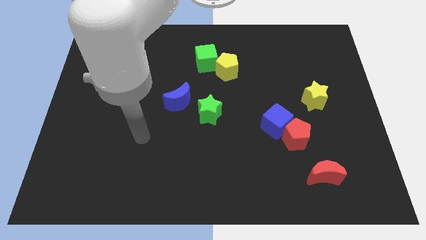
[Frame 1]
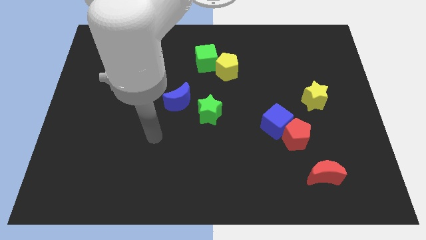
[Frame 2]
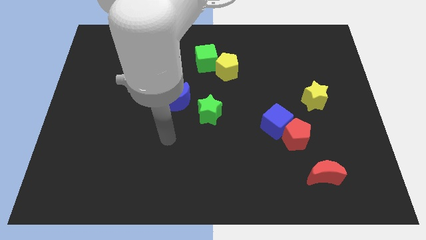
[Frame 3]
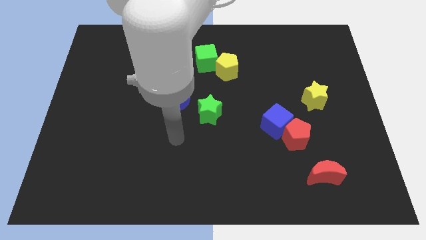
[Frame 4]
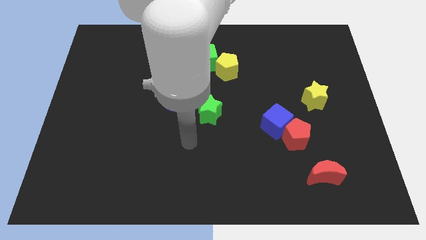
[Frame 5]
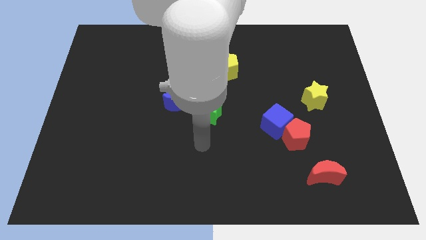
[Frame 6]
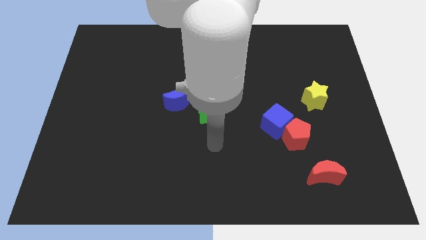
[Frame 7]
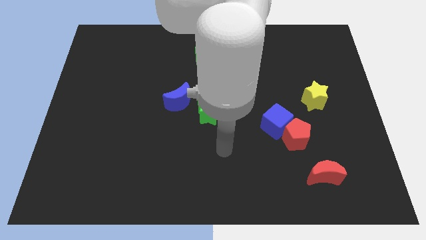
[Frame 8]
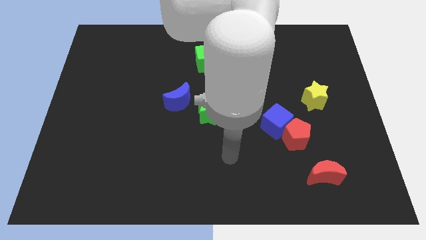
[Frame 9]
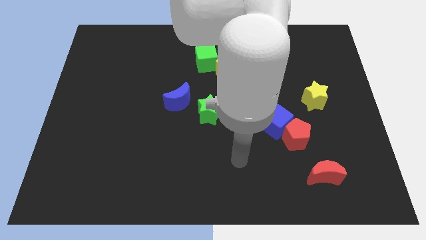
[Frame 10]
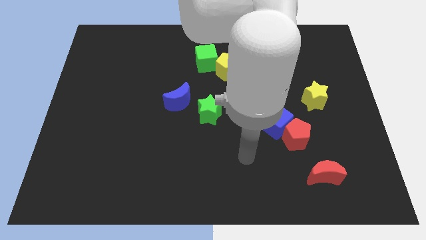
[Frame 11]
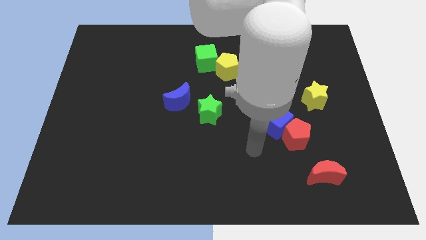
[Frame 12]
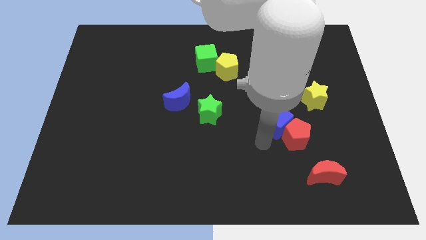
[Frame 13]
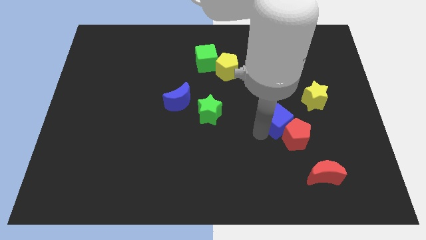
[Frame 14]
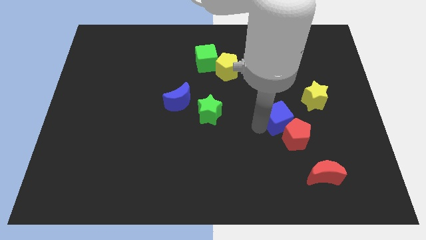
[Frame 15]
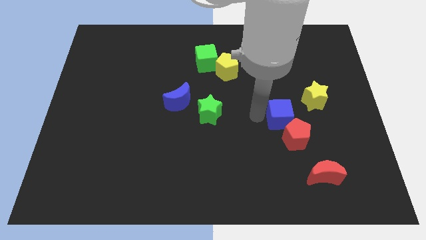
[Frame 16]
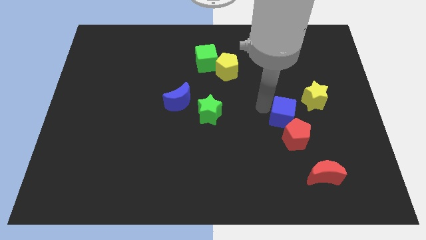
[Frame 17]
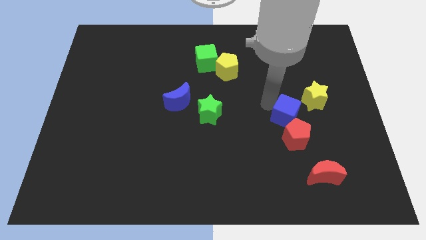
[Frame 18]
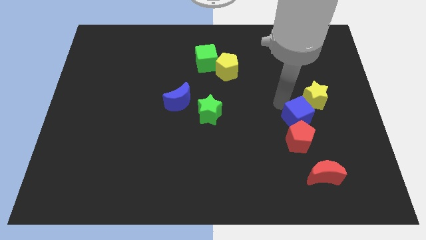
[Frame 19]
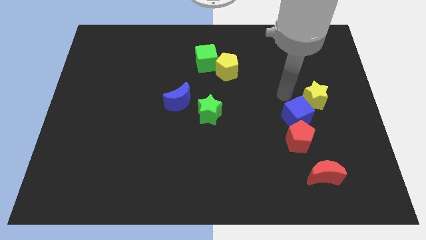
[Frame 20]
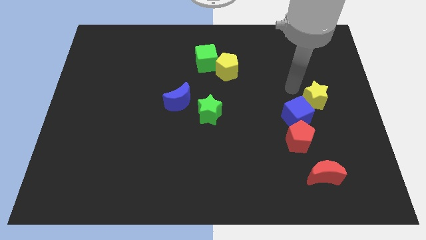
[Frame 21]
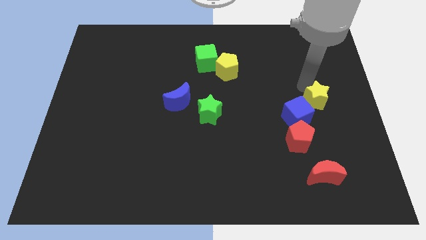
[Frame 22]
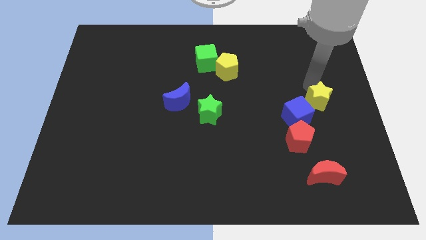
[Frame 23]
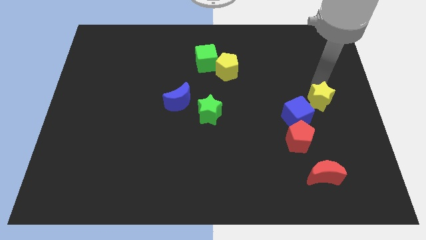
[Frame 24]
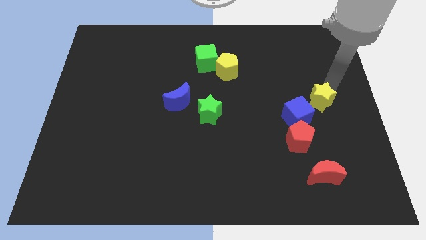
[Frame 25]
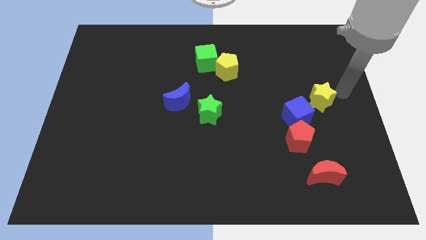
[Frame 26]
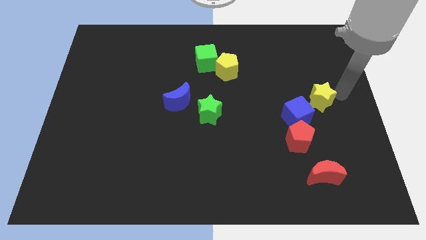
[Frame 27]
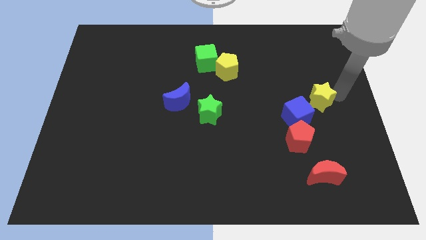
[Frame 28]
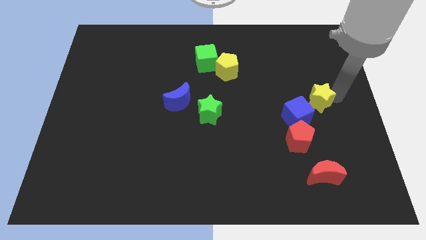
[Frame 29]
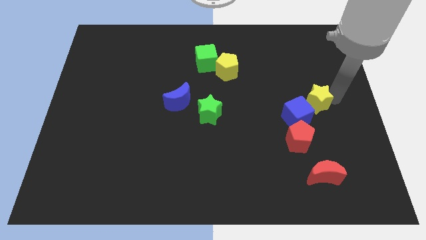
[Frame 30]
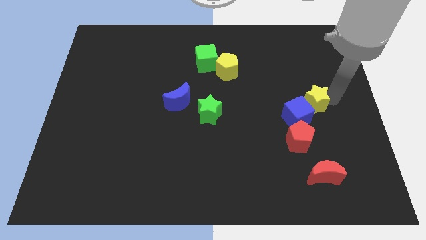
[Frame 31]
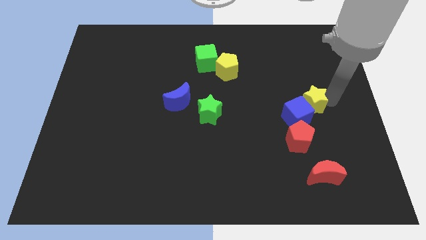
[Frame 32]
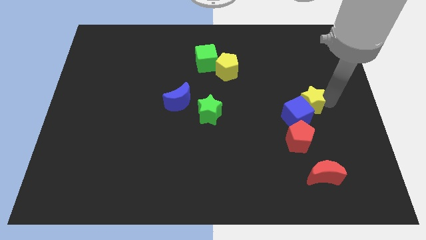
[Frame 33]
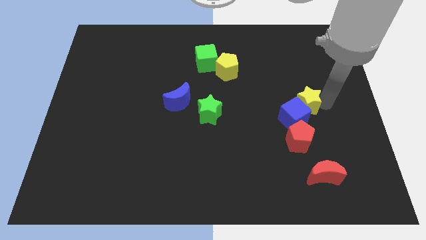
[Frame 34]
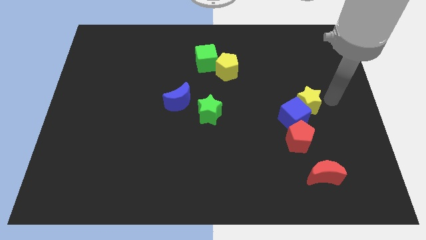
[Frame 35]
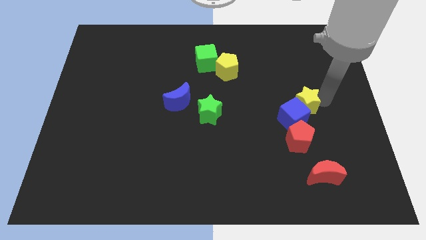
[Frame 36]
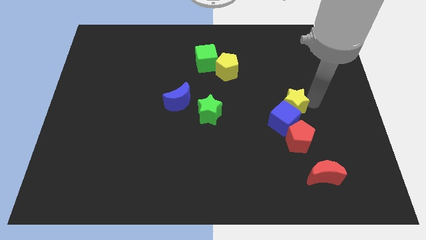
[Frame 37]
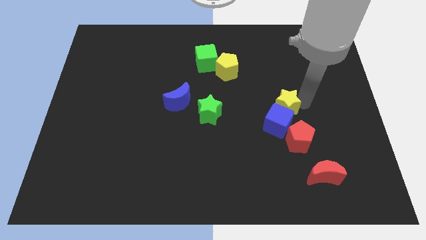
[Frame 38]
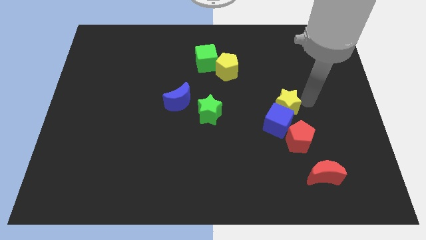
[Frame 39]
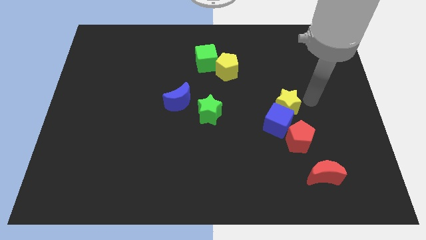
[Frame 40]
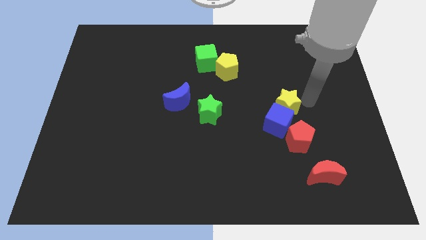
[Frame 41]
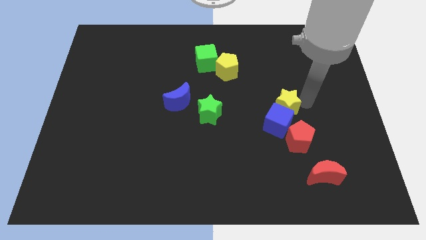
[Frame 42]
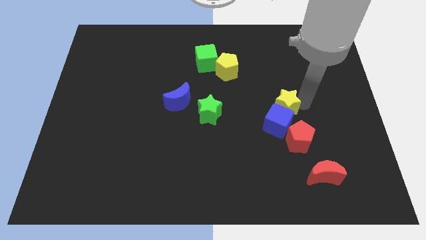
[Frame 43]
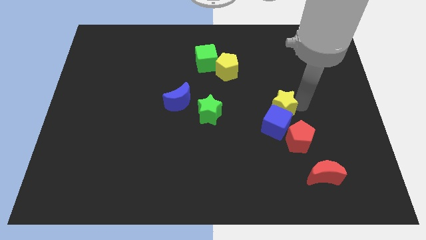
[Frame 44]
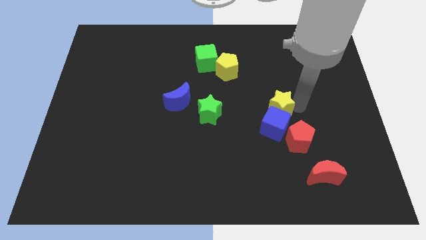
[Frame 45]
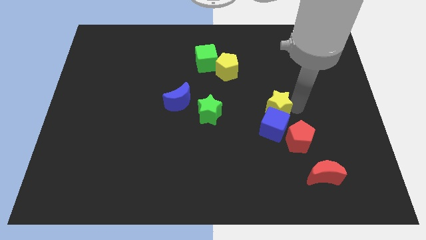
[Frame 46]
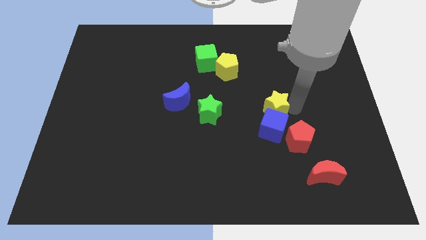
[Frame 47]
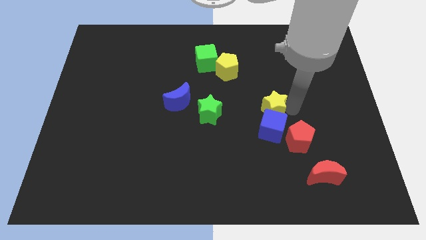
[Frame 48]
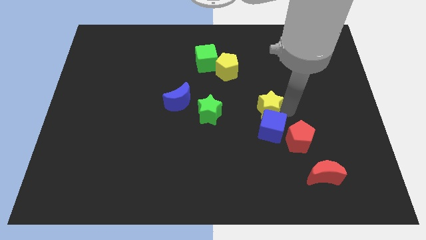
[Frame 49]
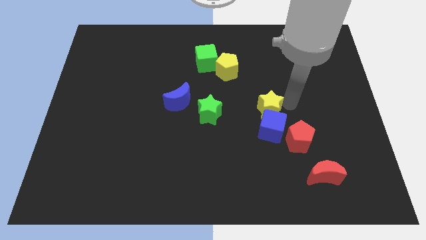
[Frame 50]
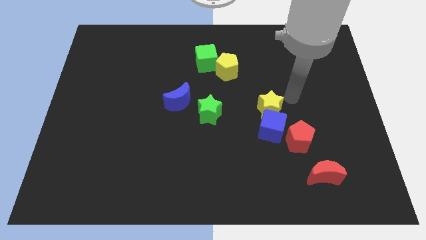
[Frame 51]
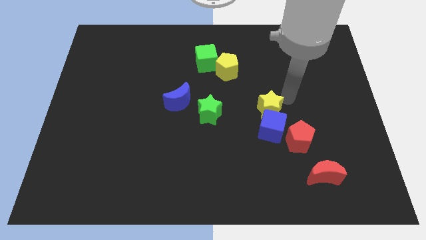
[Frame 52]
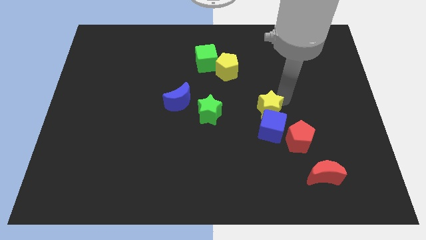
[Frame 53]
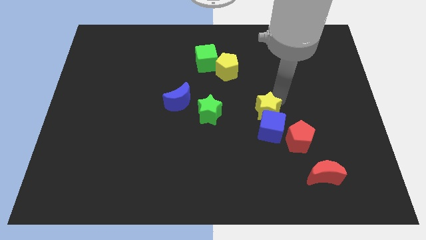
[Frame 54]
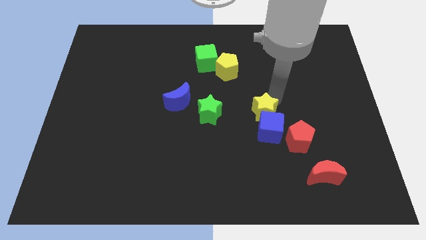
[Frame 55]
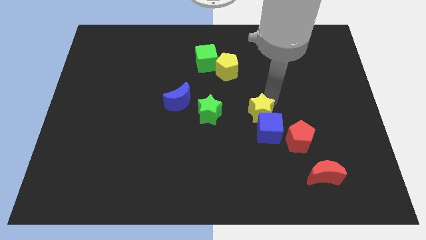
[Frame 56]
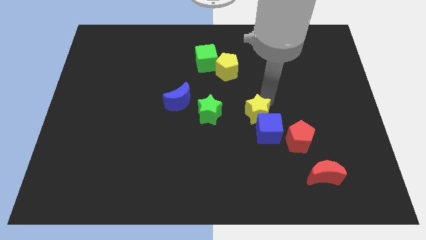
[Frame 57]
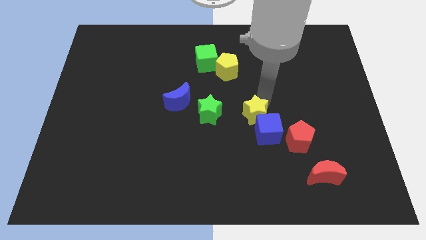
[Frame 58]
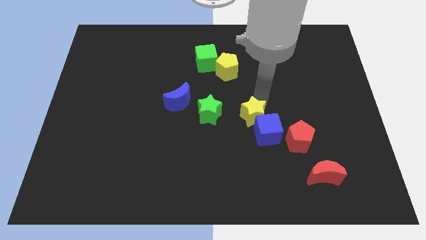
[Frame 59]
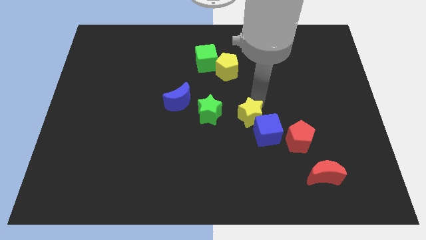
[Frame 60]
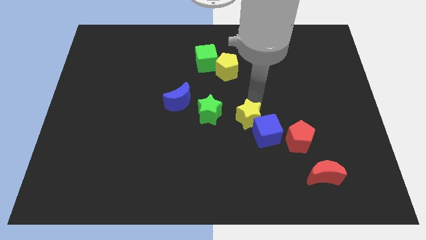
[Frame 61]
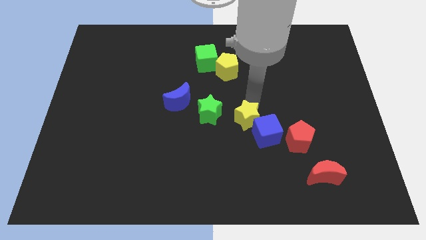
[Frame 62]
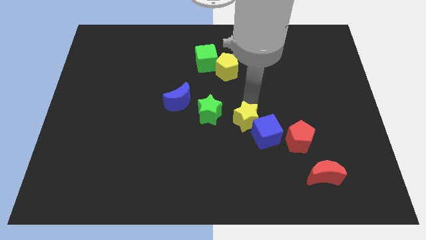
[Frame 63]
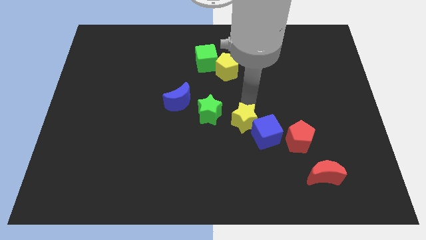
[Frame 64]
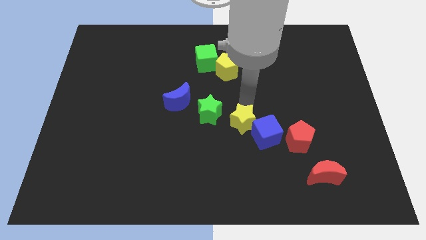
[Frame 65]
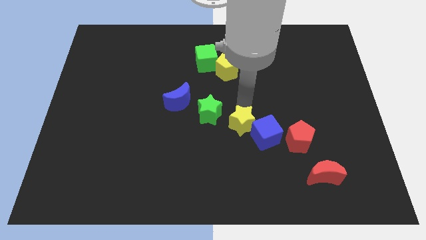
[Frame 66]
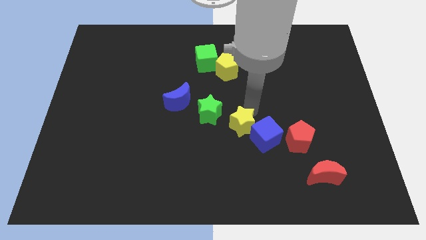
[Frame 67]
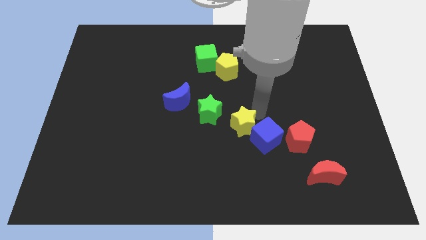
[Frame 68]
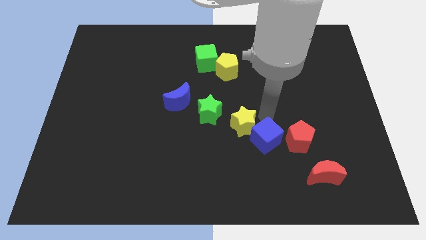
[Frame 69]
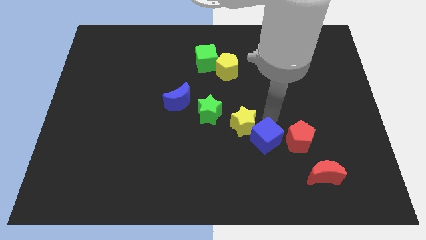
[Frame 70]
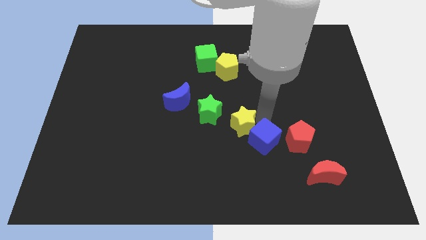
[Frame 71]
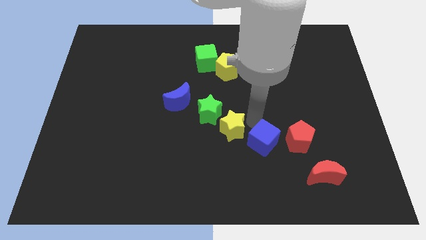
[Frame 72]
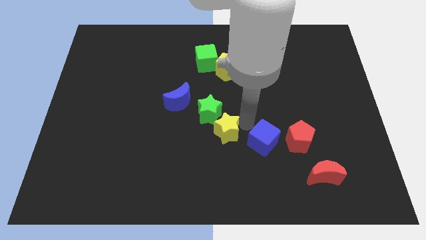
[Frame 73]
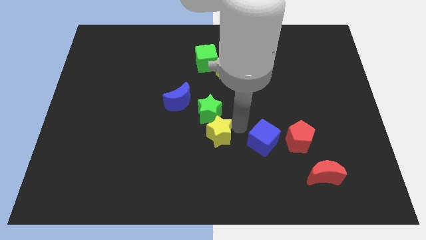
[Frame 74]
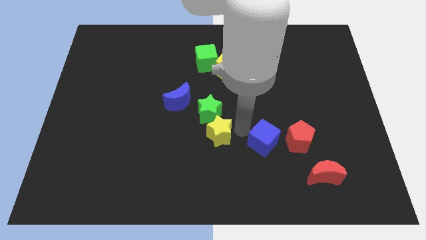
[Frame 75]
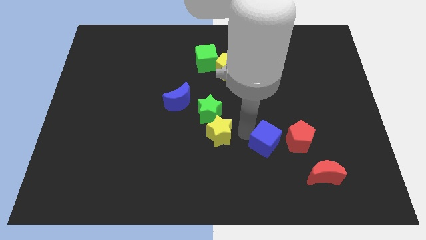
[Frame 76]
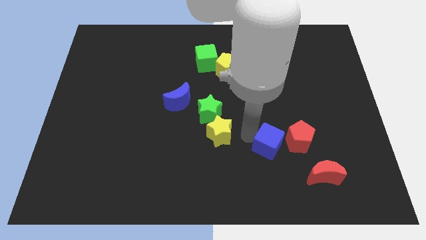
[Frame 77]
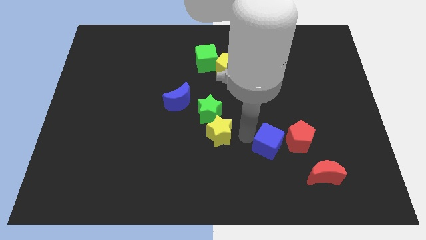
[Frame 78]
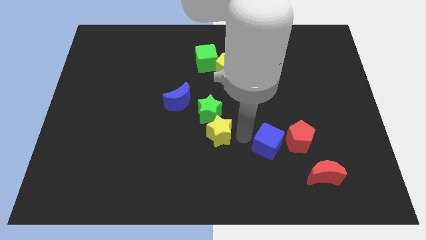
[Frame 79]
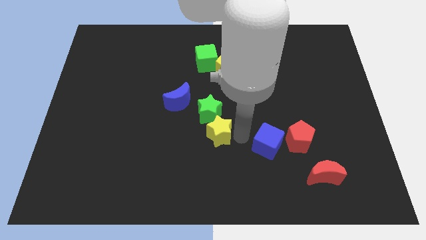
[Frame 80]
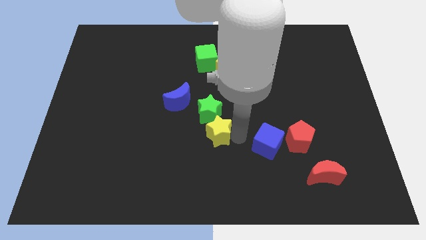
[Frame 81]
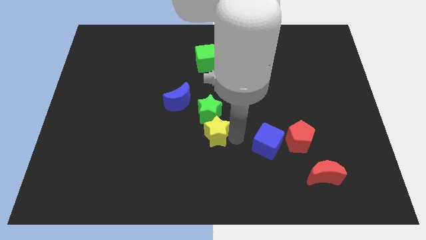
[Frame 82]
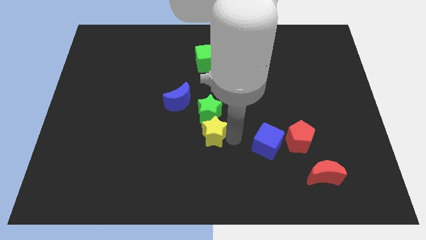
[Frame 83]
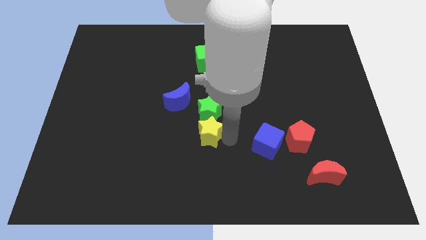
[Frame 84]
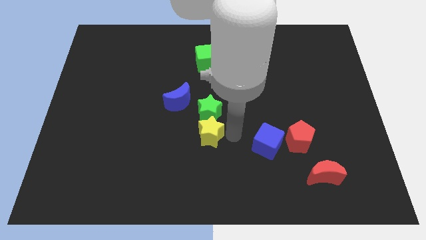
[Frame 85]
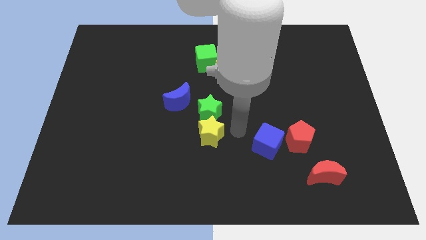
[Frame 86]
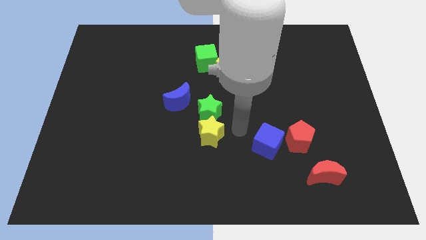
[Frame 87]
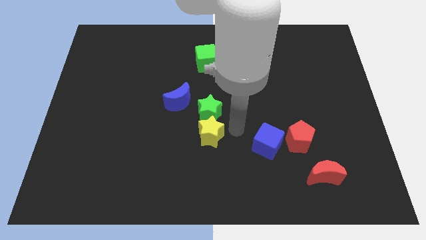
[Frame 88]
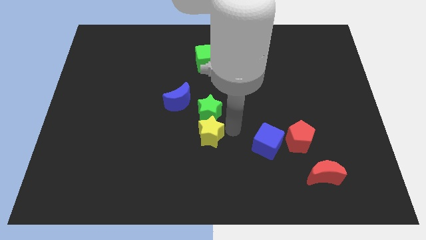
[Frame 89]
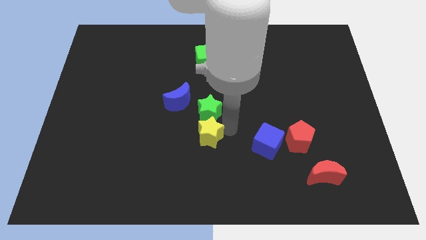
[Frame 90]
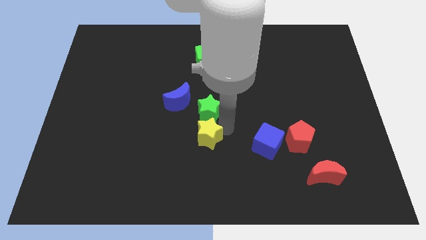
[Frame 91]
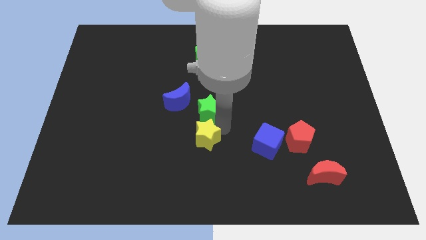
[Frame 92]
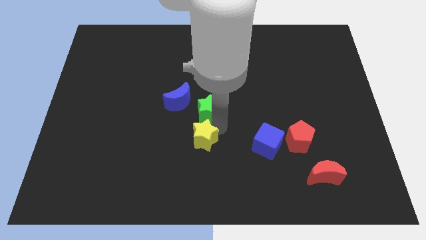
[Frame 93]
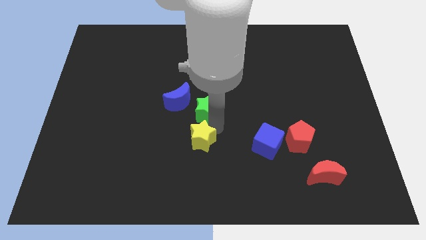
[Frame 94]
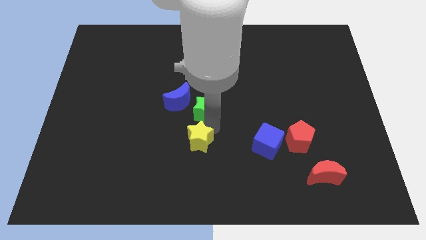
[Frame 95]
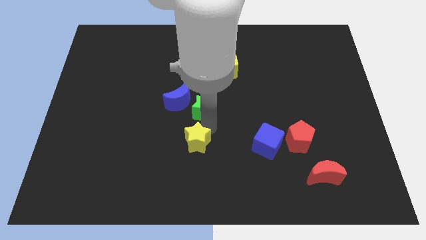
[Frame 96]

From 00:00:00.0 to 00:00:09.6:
push the yellow star to the bottom side of the blue moon
